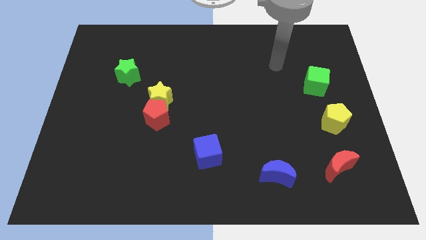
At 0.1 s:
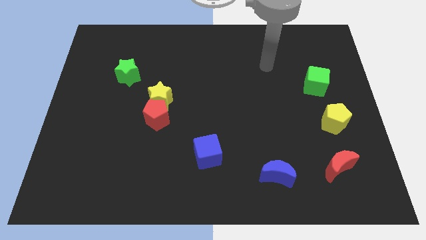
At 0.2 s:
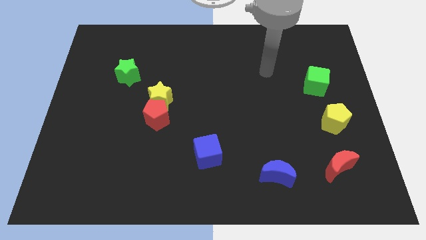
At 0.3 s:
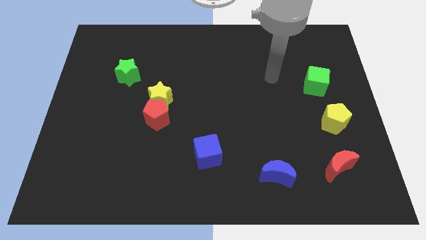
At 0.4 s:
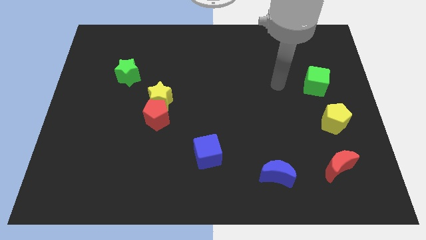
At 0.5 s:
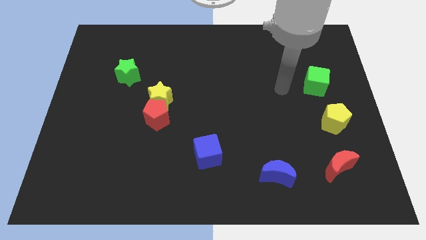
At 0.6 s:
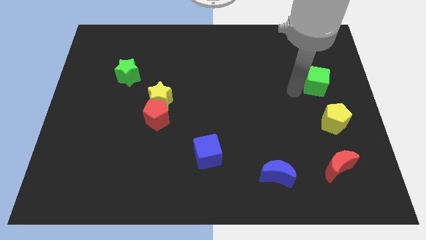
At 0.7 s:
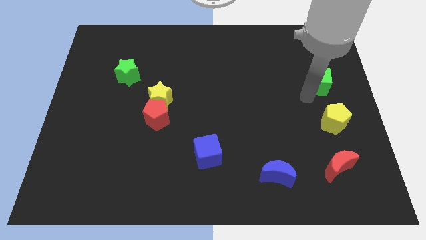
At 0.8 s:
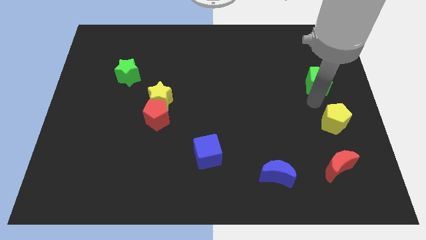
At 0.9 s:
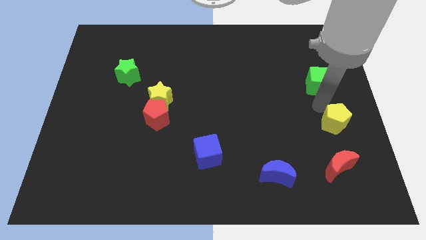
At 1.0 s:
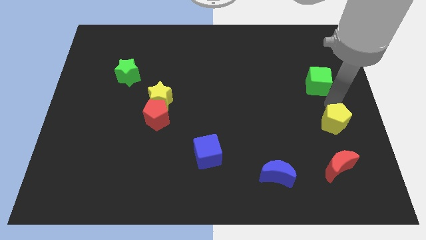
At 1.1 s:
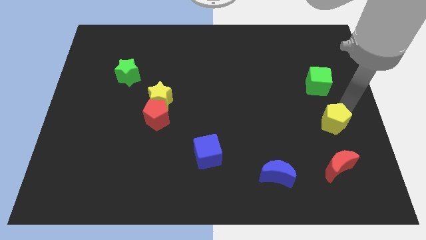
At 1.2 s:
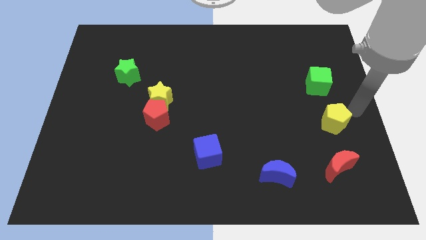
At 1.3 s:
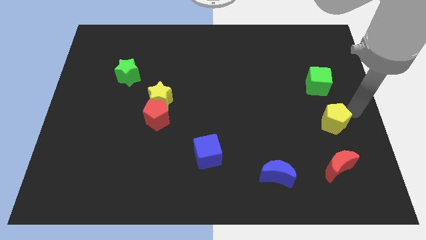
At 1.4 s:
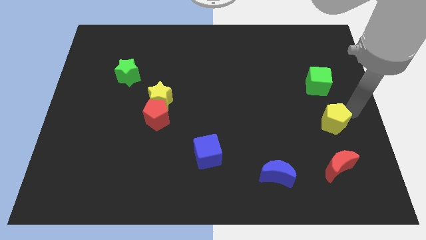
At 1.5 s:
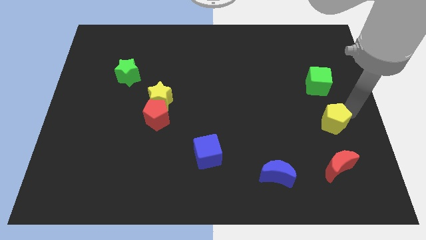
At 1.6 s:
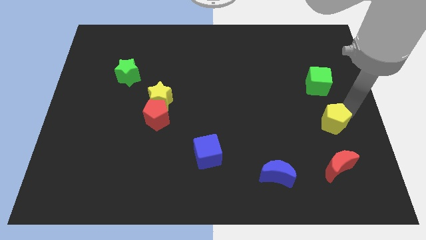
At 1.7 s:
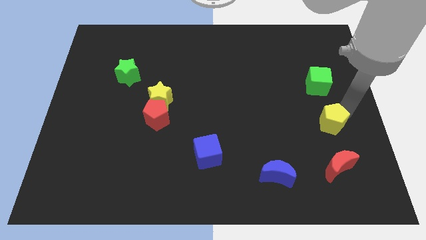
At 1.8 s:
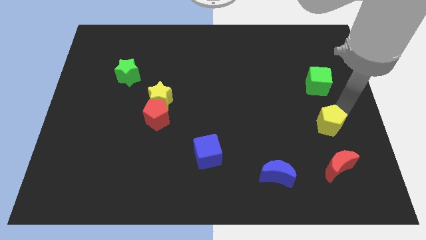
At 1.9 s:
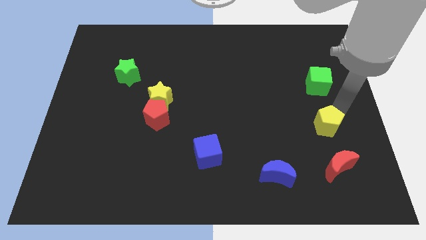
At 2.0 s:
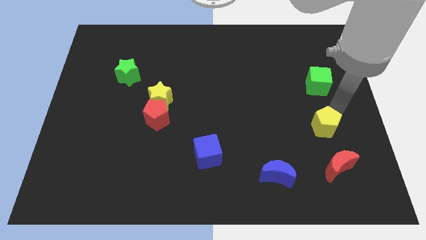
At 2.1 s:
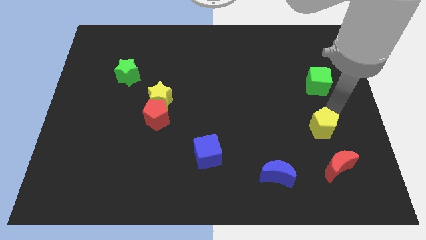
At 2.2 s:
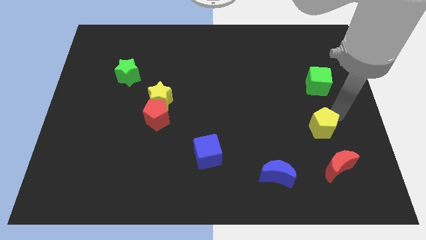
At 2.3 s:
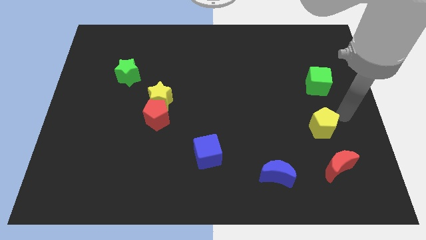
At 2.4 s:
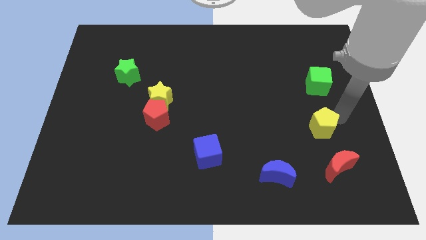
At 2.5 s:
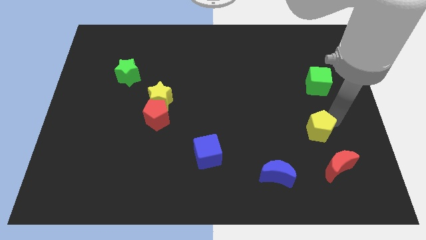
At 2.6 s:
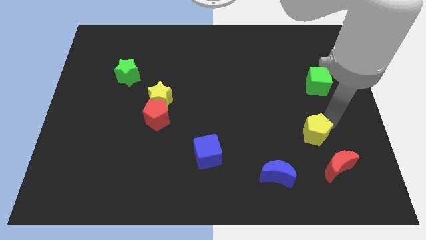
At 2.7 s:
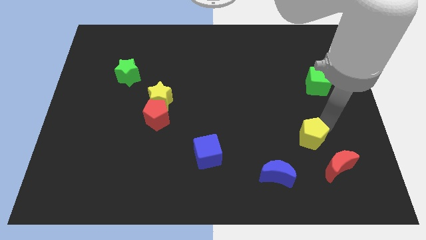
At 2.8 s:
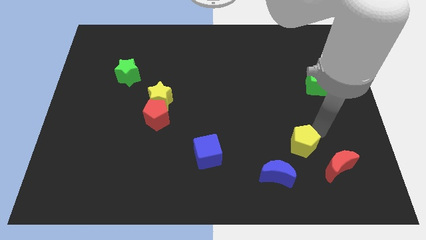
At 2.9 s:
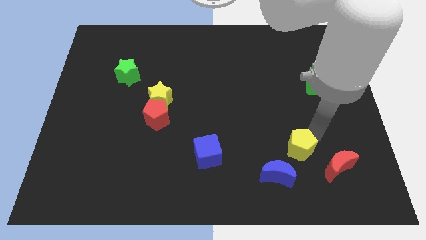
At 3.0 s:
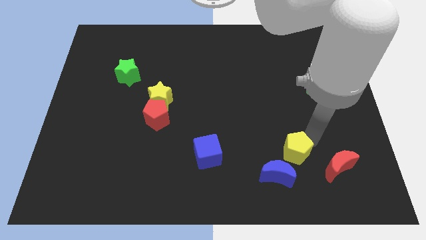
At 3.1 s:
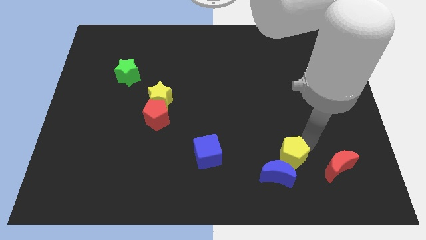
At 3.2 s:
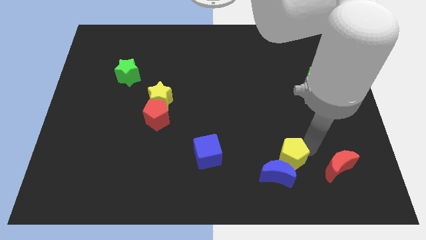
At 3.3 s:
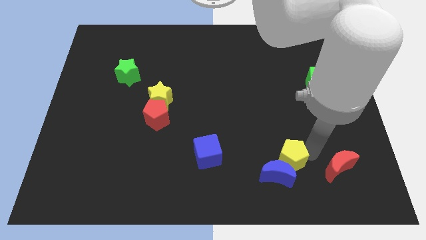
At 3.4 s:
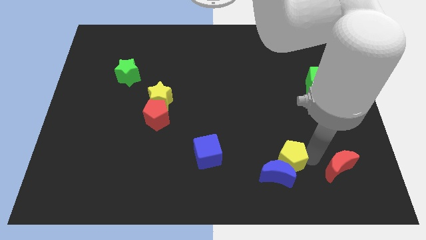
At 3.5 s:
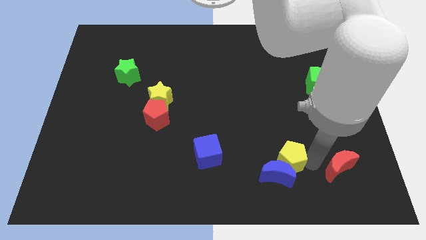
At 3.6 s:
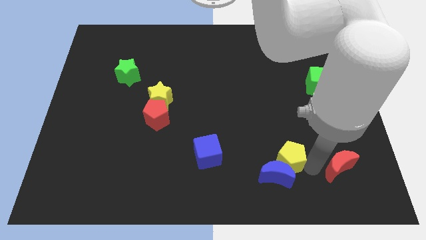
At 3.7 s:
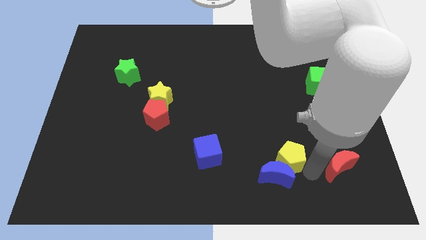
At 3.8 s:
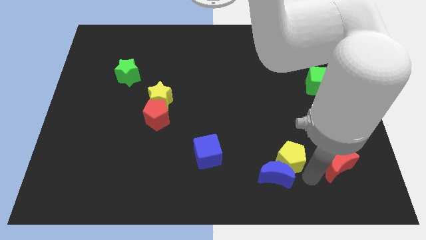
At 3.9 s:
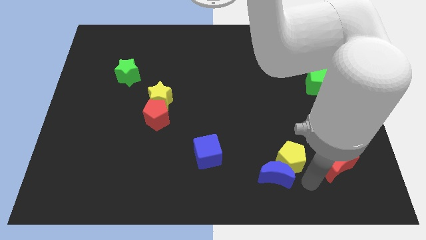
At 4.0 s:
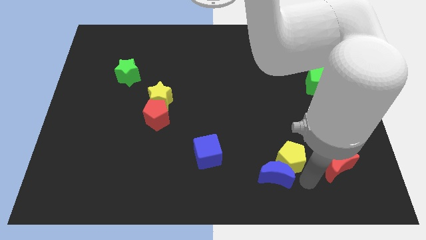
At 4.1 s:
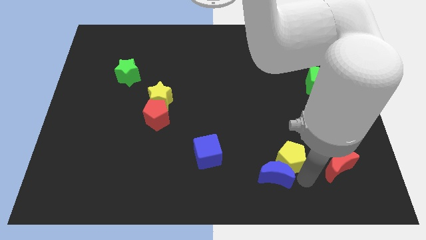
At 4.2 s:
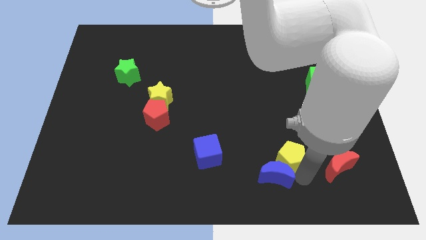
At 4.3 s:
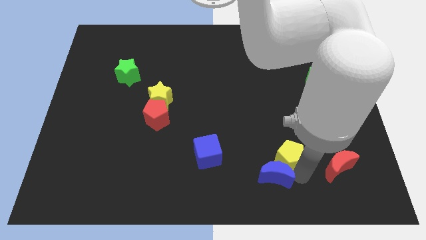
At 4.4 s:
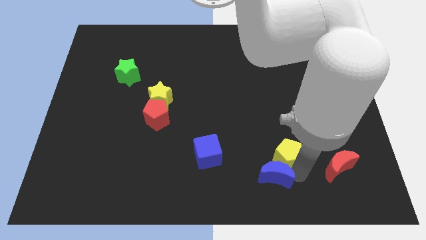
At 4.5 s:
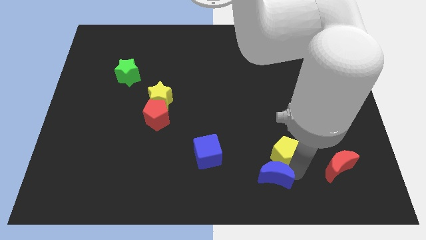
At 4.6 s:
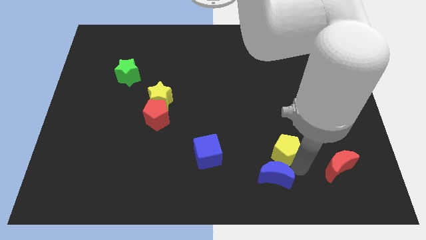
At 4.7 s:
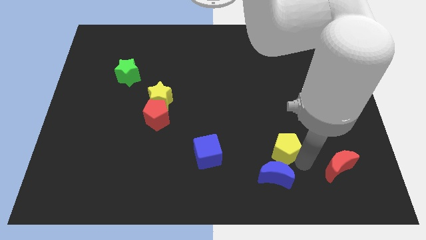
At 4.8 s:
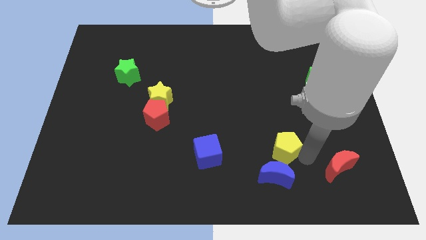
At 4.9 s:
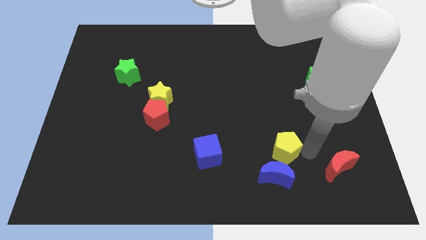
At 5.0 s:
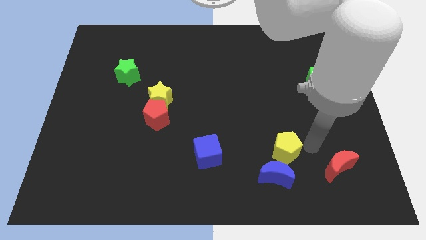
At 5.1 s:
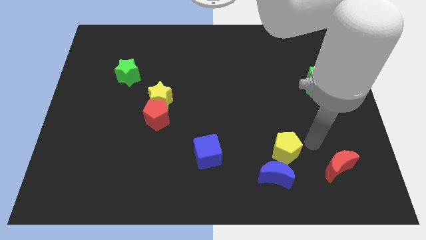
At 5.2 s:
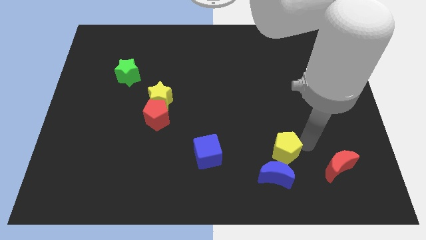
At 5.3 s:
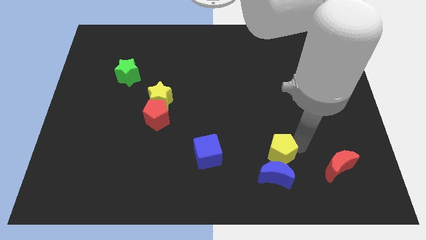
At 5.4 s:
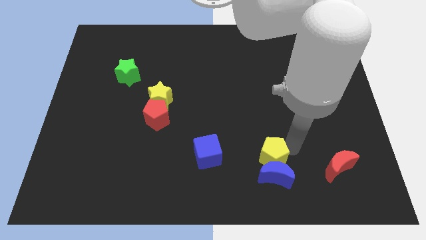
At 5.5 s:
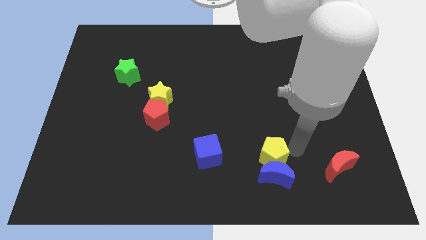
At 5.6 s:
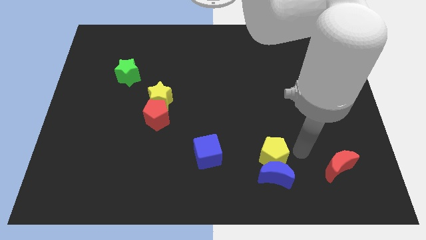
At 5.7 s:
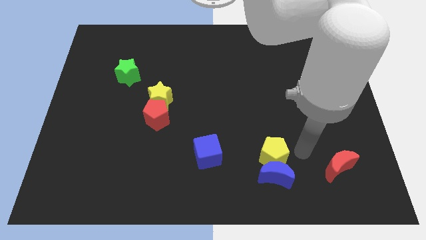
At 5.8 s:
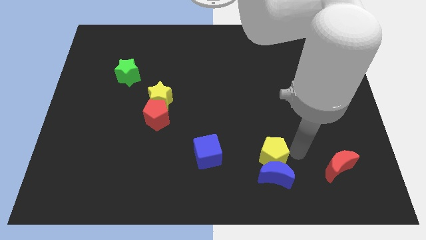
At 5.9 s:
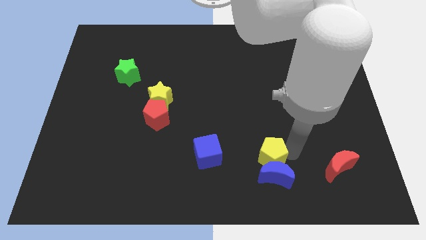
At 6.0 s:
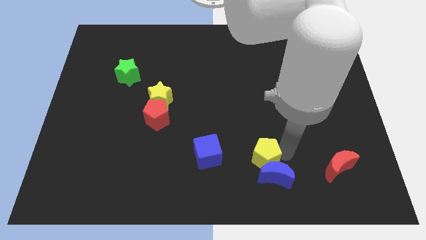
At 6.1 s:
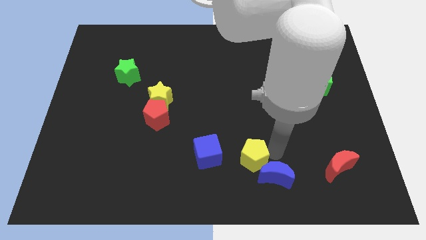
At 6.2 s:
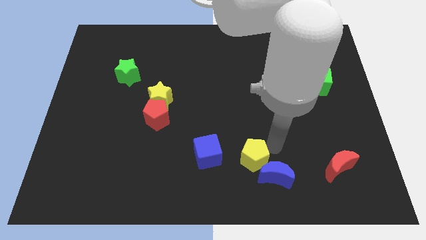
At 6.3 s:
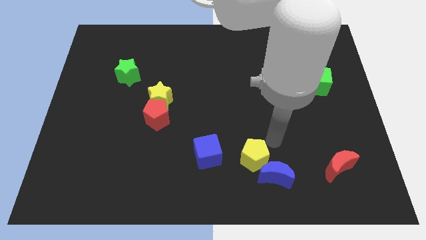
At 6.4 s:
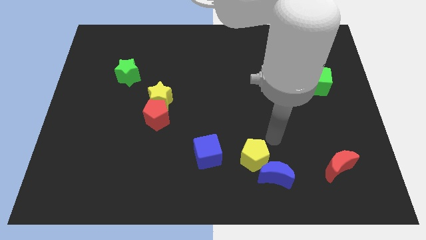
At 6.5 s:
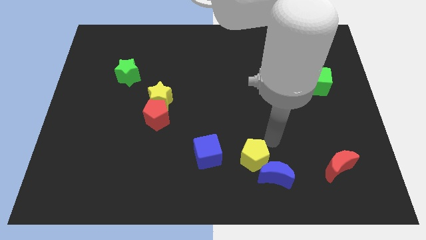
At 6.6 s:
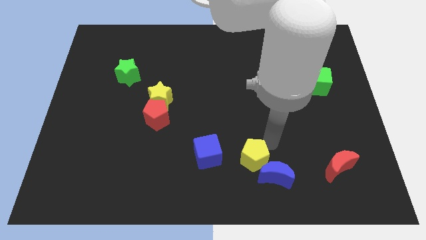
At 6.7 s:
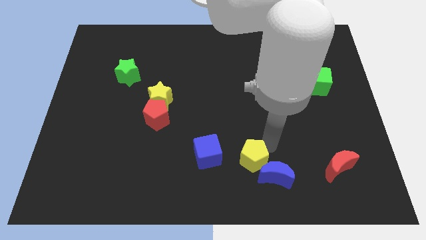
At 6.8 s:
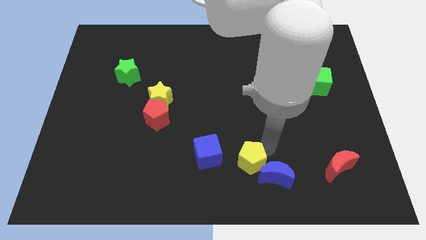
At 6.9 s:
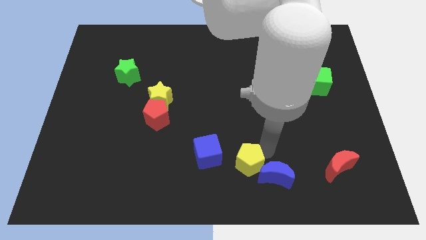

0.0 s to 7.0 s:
slide the yellow pentagon to the bottom right side of the blue cube
